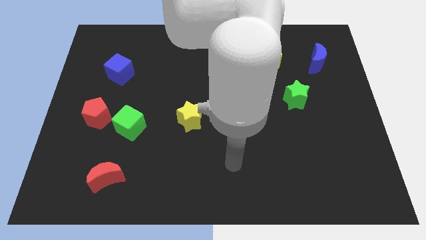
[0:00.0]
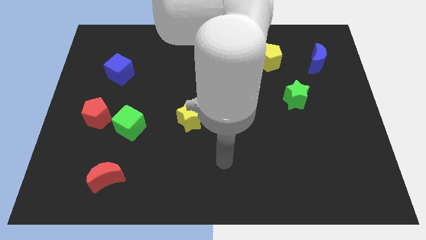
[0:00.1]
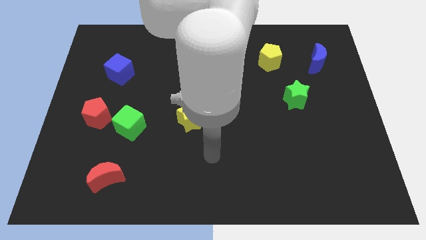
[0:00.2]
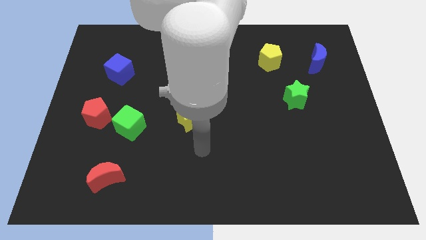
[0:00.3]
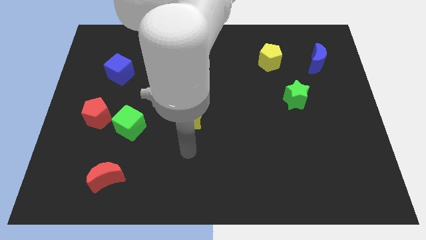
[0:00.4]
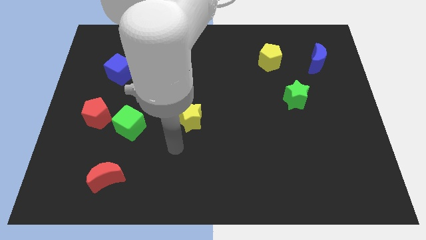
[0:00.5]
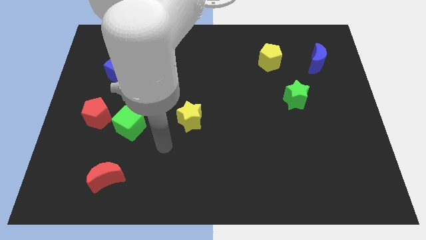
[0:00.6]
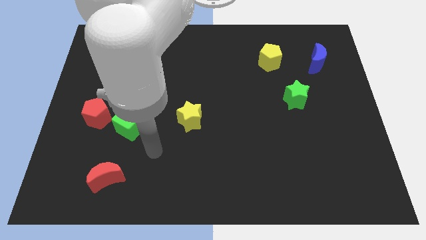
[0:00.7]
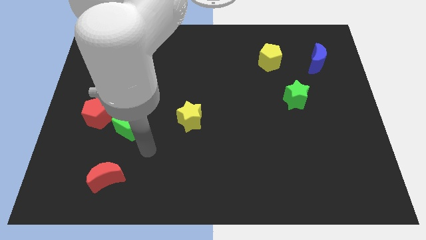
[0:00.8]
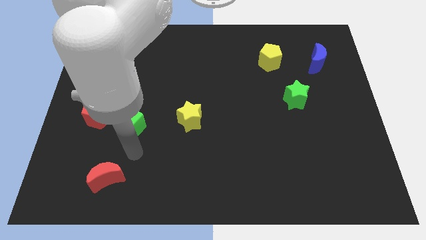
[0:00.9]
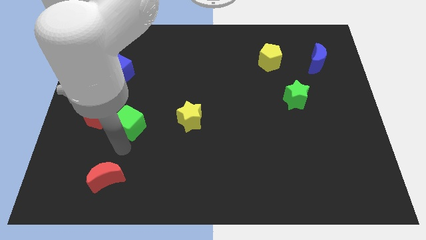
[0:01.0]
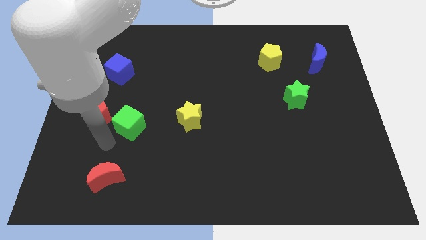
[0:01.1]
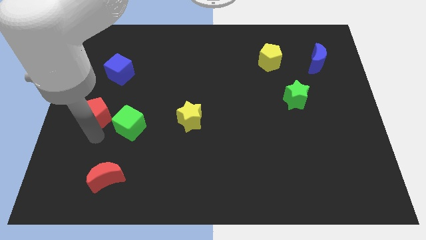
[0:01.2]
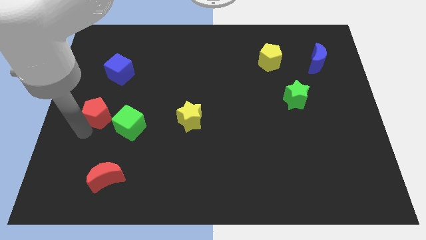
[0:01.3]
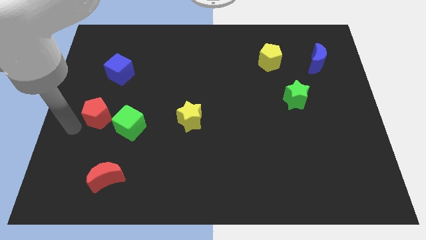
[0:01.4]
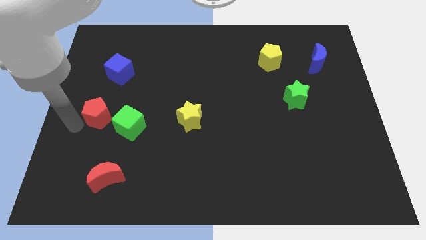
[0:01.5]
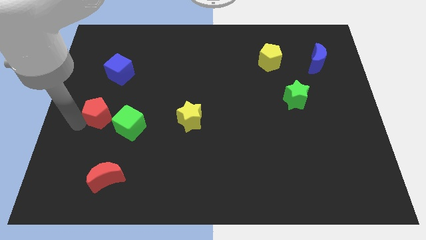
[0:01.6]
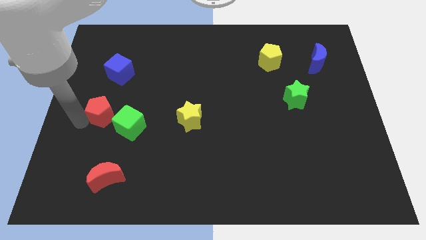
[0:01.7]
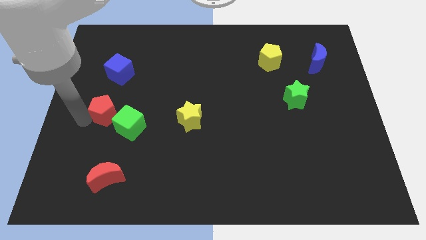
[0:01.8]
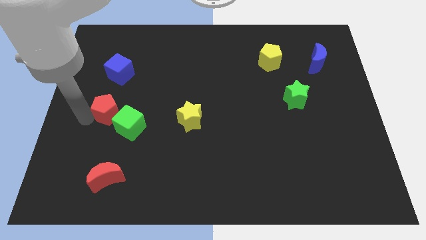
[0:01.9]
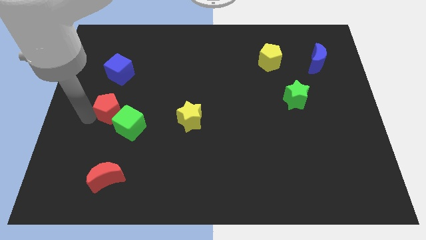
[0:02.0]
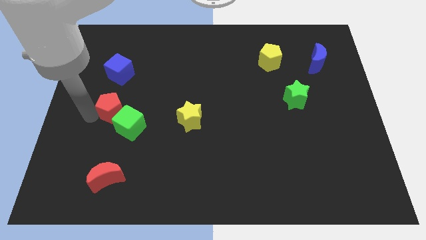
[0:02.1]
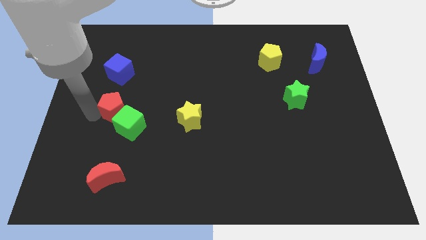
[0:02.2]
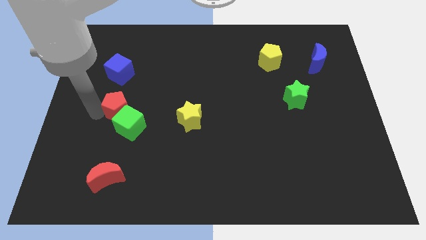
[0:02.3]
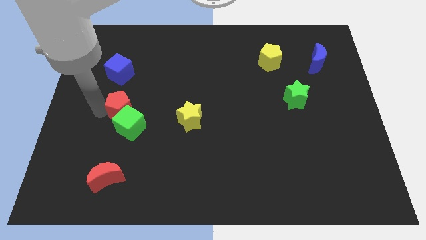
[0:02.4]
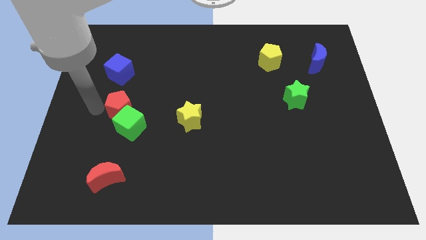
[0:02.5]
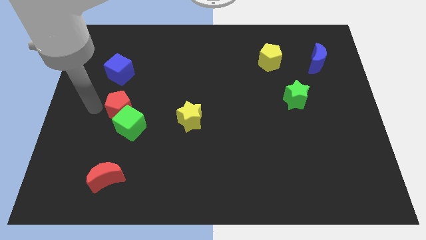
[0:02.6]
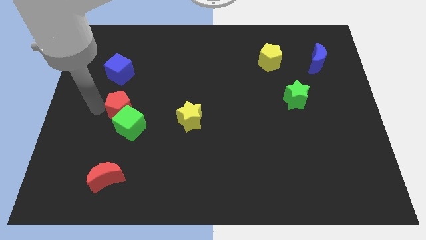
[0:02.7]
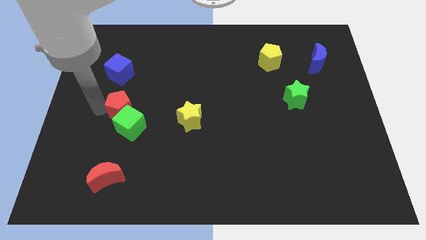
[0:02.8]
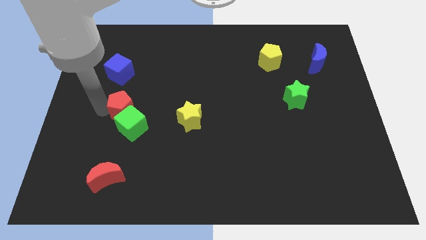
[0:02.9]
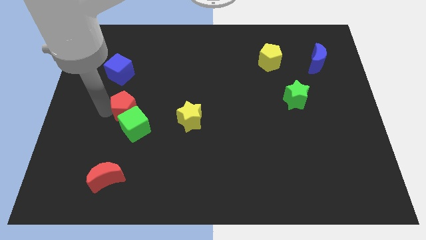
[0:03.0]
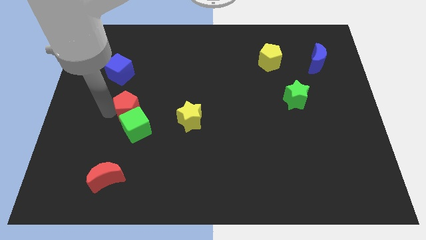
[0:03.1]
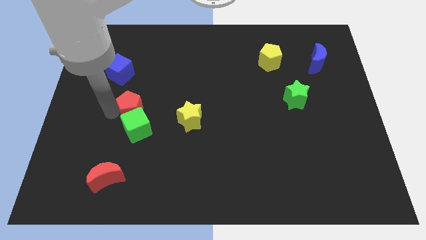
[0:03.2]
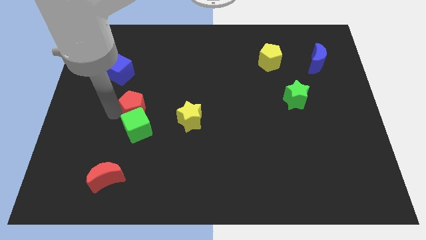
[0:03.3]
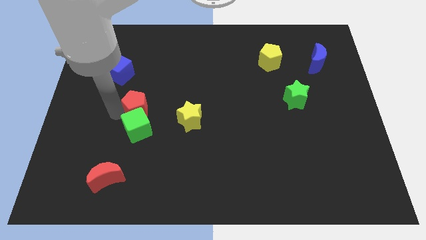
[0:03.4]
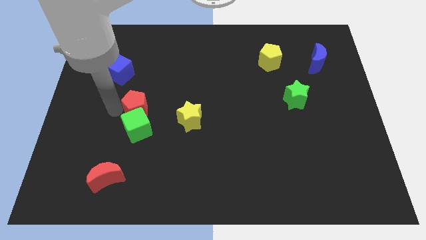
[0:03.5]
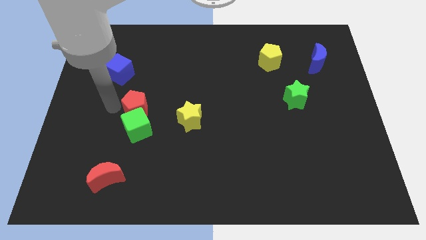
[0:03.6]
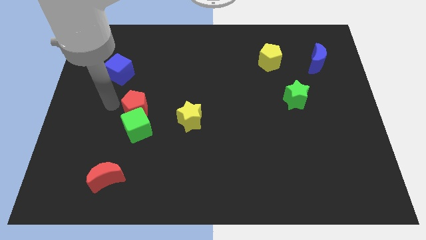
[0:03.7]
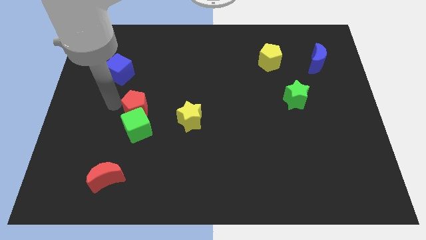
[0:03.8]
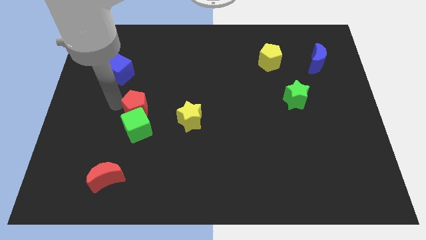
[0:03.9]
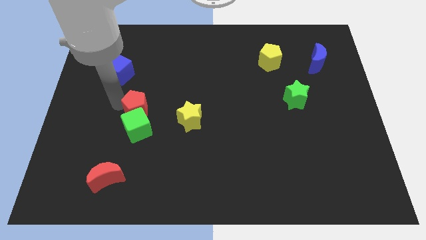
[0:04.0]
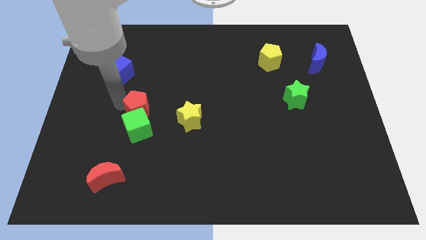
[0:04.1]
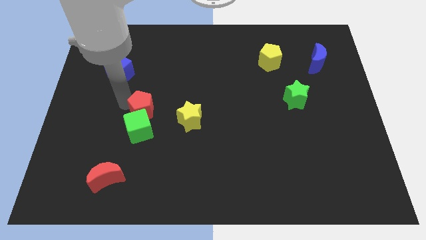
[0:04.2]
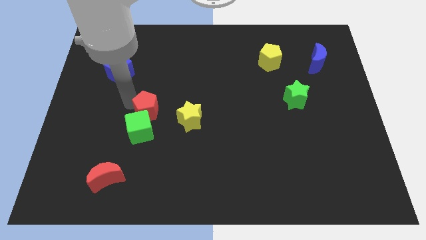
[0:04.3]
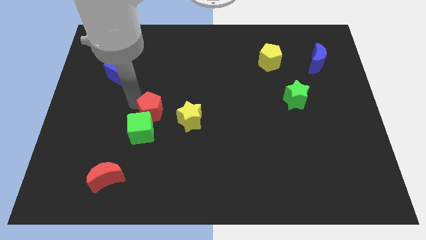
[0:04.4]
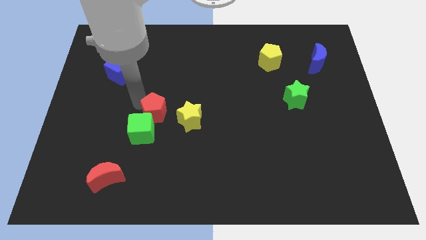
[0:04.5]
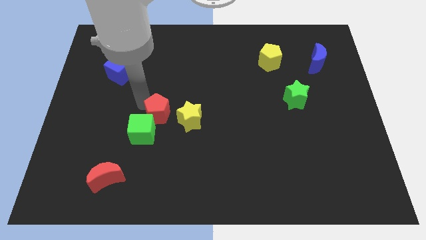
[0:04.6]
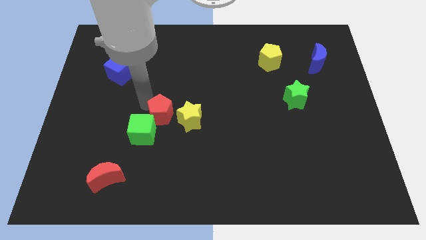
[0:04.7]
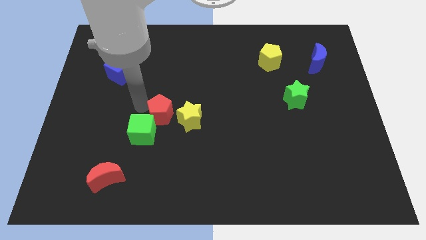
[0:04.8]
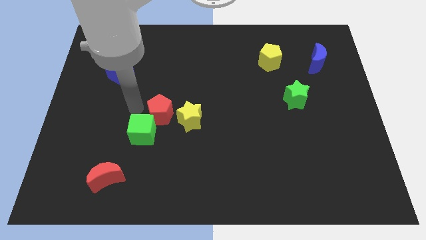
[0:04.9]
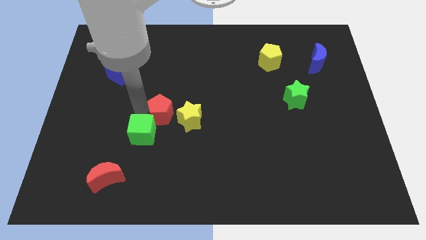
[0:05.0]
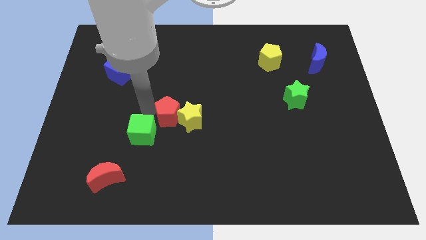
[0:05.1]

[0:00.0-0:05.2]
put the red pentagon towards the yellow star

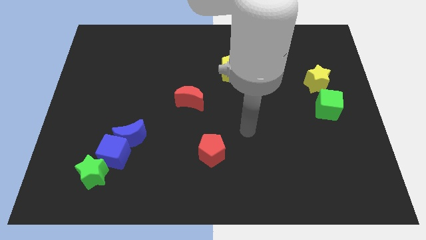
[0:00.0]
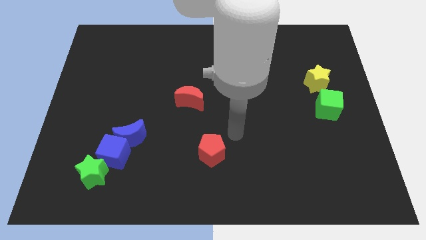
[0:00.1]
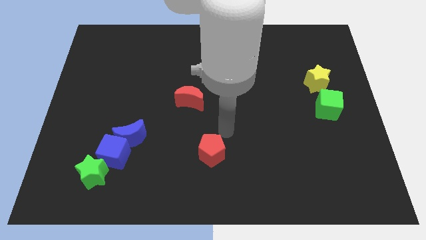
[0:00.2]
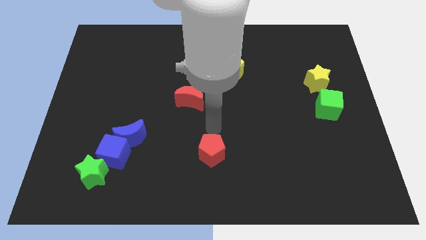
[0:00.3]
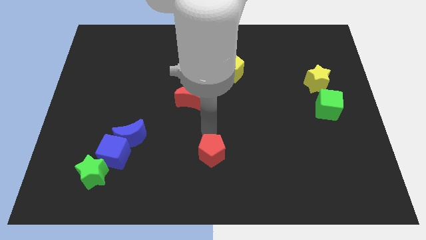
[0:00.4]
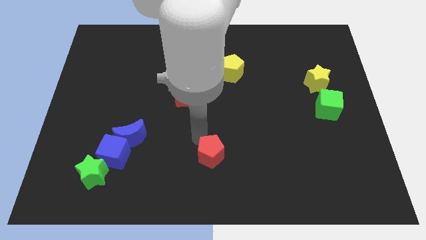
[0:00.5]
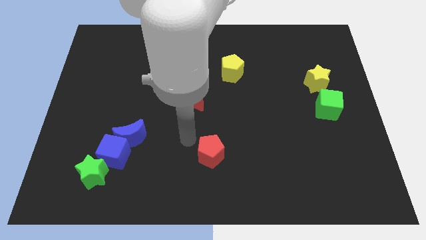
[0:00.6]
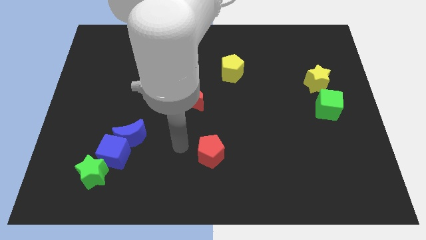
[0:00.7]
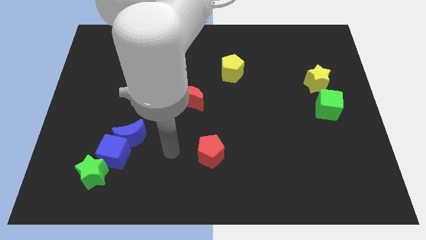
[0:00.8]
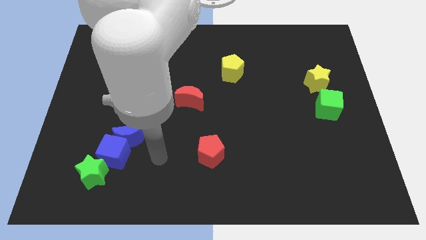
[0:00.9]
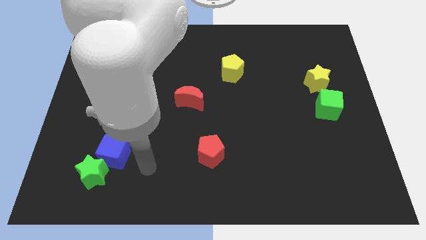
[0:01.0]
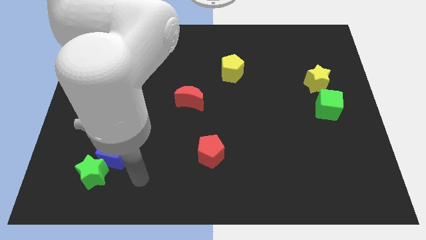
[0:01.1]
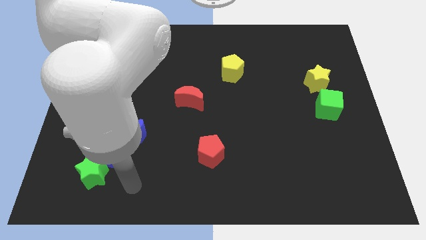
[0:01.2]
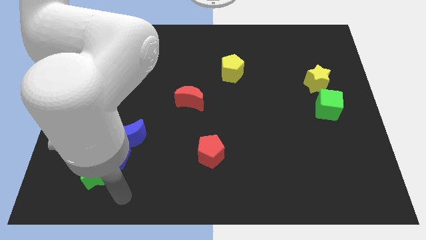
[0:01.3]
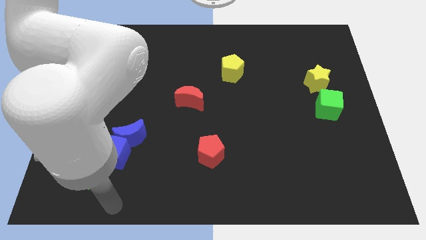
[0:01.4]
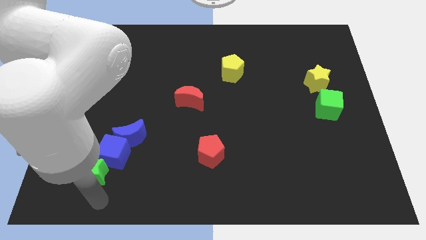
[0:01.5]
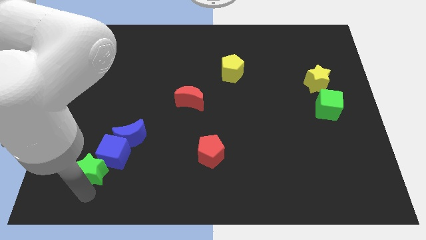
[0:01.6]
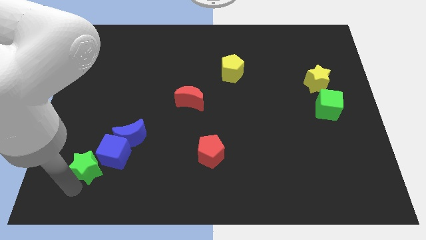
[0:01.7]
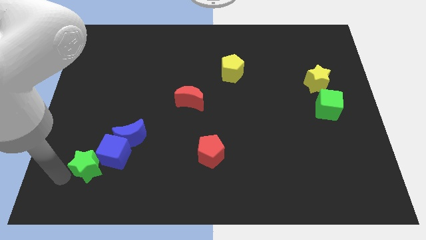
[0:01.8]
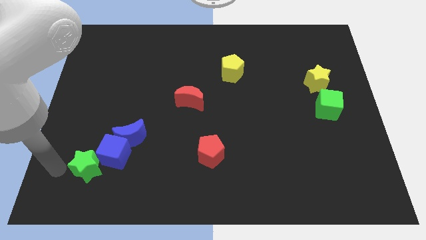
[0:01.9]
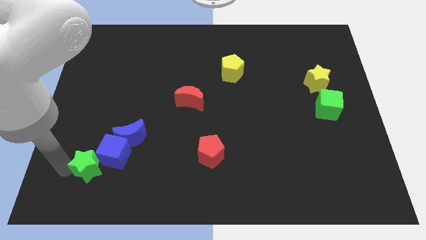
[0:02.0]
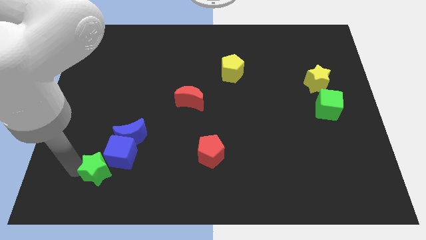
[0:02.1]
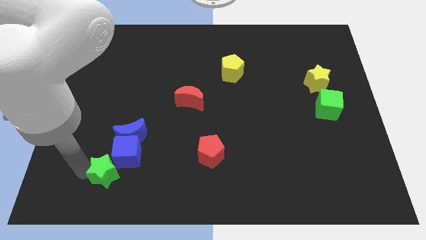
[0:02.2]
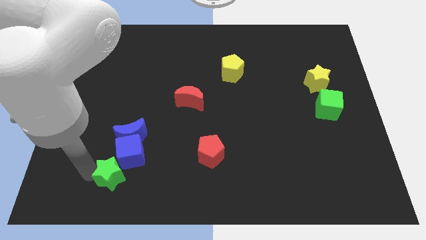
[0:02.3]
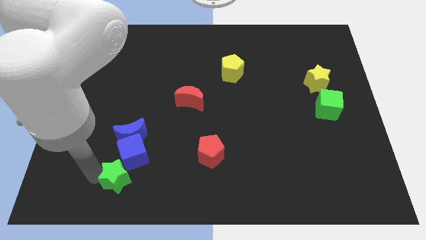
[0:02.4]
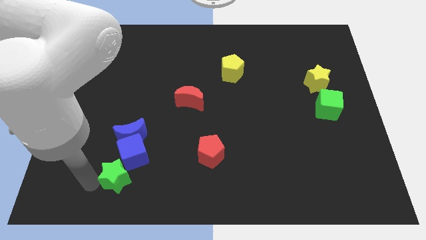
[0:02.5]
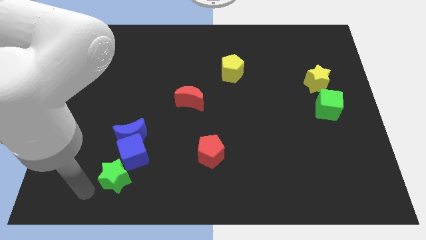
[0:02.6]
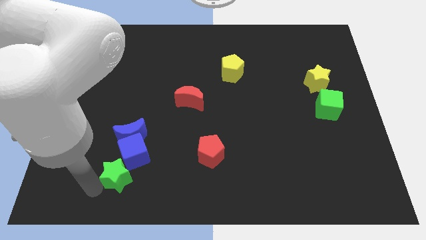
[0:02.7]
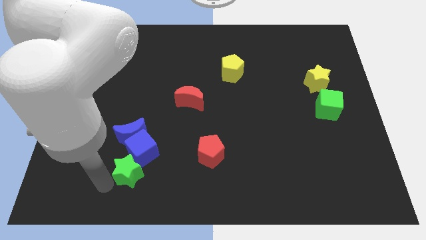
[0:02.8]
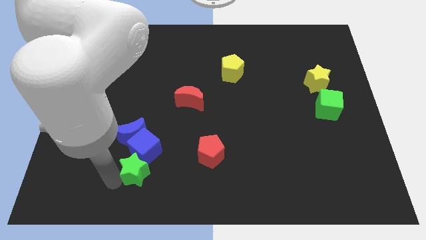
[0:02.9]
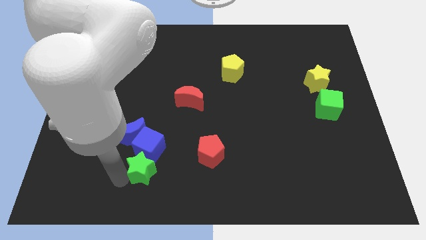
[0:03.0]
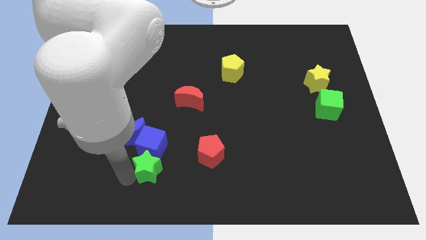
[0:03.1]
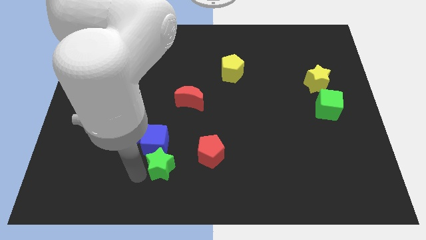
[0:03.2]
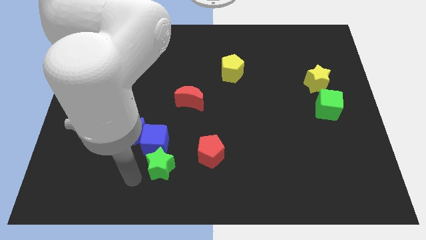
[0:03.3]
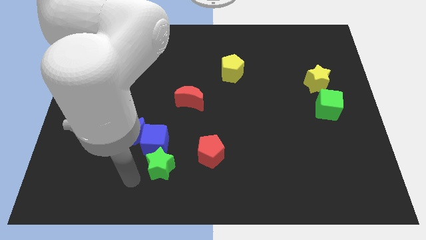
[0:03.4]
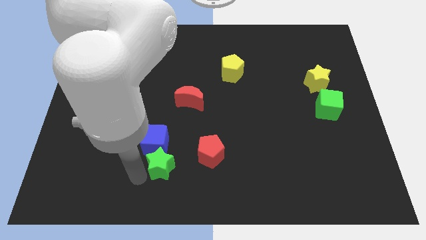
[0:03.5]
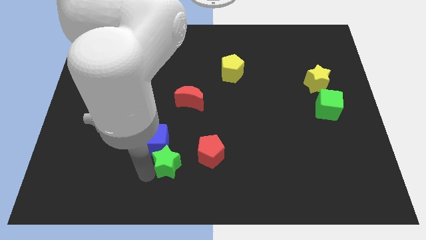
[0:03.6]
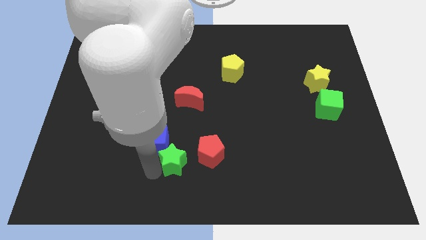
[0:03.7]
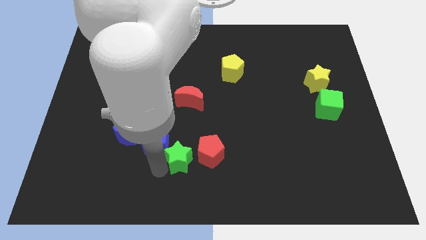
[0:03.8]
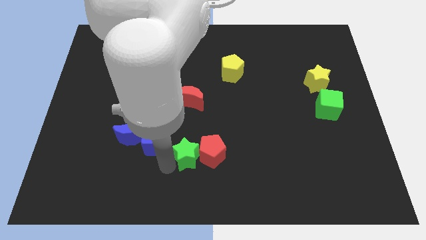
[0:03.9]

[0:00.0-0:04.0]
move the green star close to the red pentagon
